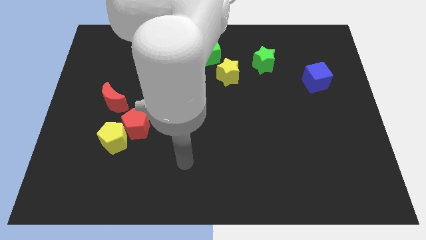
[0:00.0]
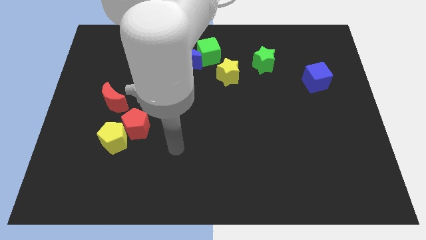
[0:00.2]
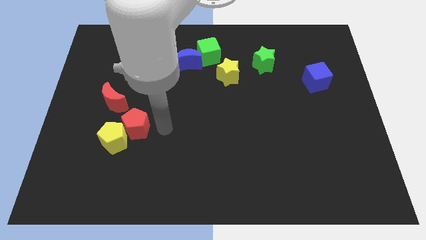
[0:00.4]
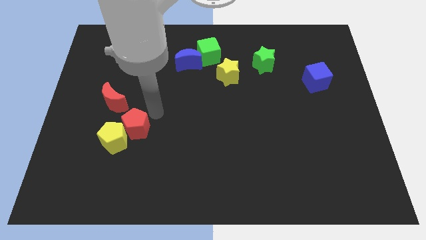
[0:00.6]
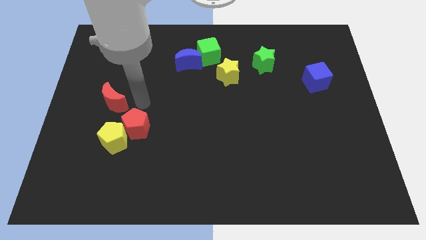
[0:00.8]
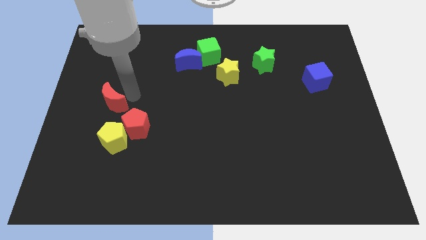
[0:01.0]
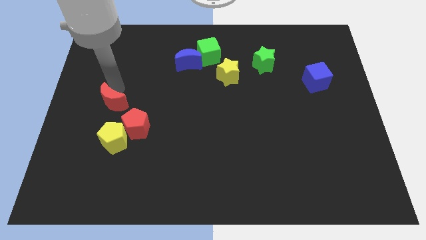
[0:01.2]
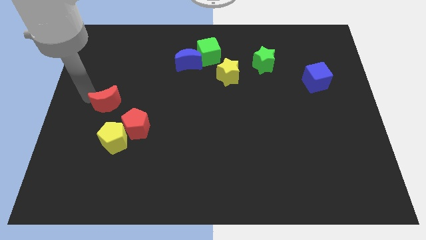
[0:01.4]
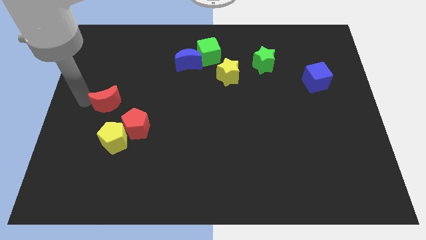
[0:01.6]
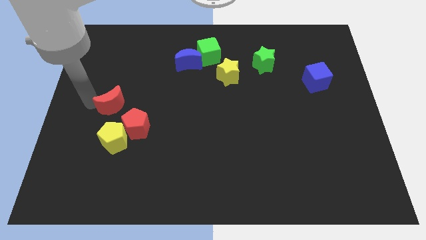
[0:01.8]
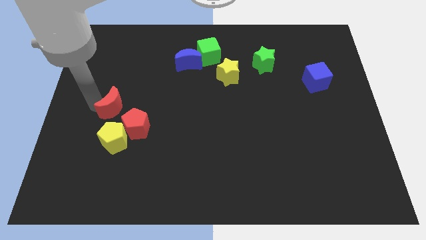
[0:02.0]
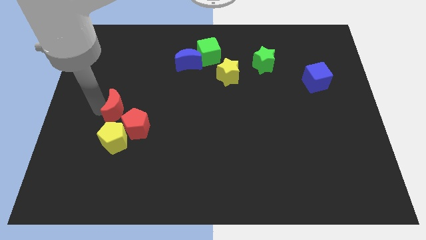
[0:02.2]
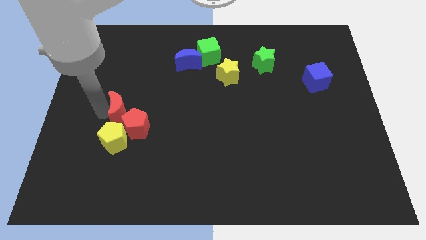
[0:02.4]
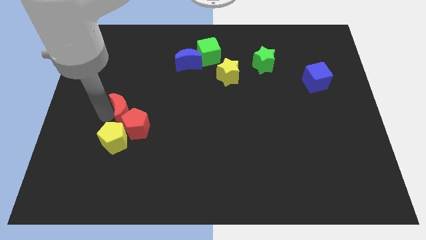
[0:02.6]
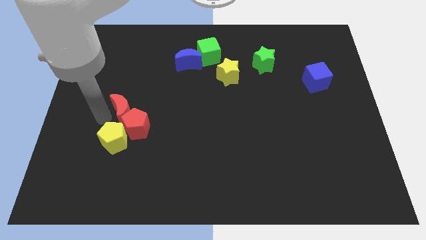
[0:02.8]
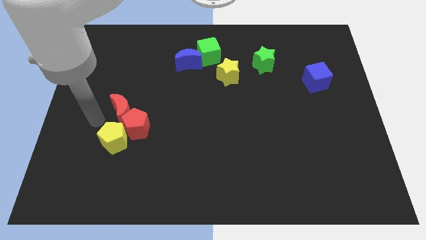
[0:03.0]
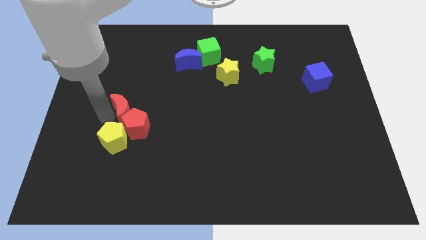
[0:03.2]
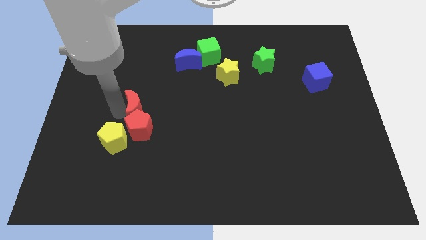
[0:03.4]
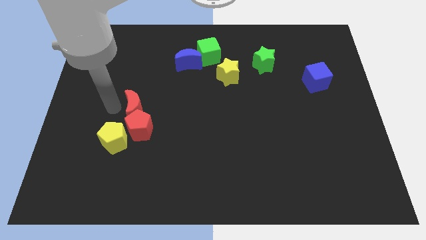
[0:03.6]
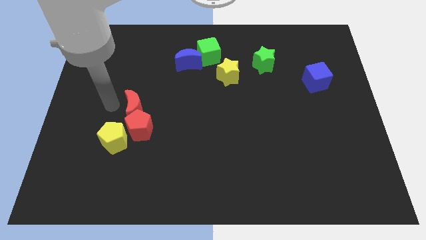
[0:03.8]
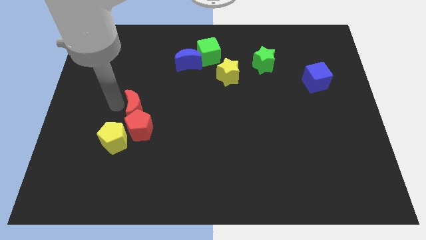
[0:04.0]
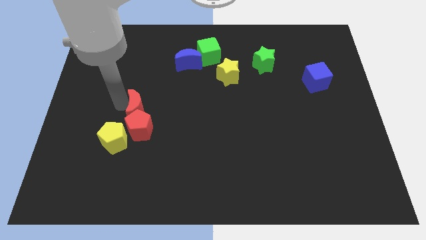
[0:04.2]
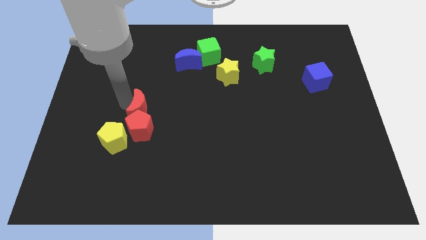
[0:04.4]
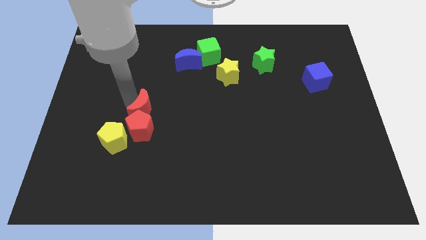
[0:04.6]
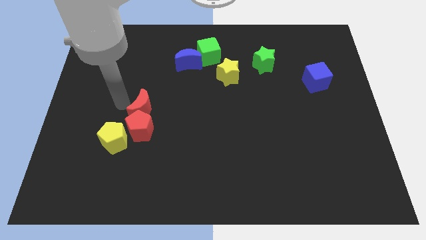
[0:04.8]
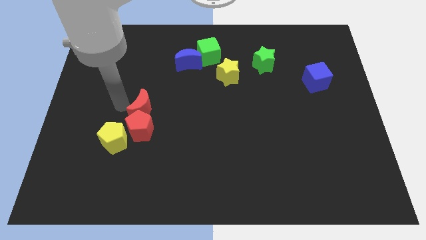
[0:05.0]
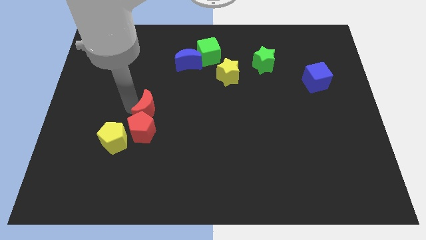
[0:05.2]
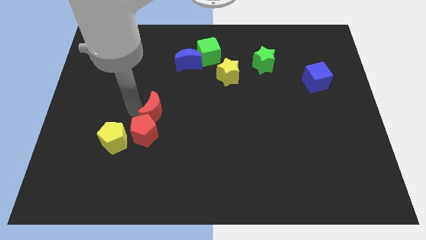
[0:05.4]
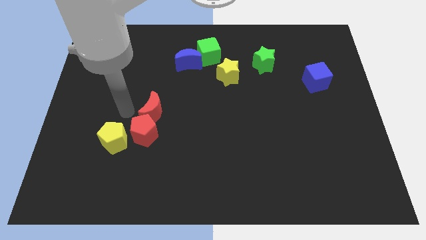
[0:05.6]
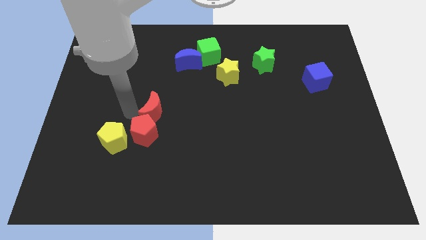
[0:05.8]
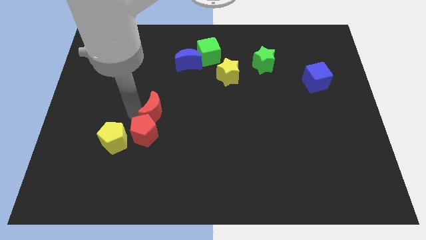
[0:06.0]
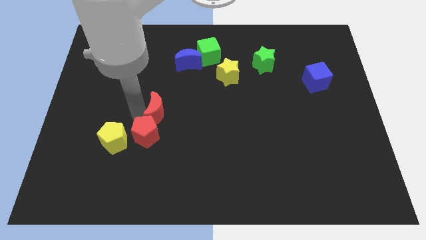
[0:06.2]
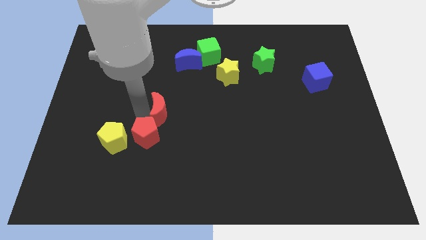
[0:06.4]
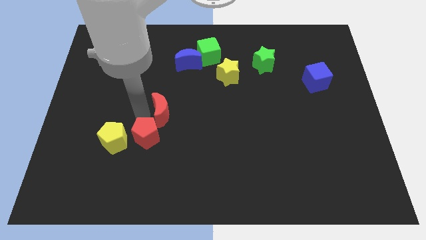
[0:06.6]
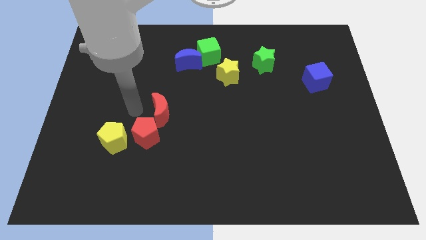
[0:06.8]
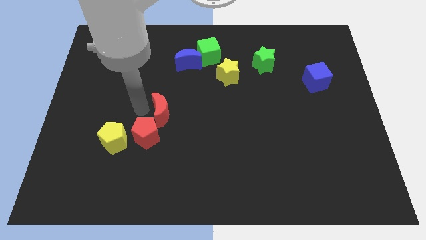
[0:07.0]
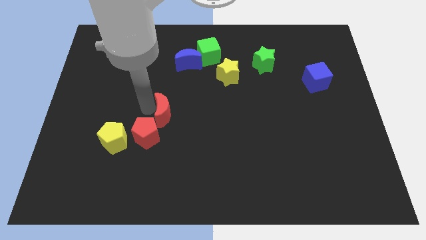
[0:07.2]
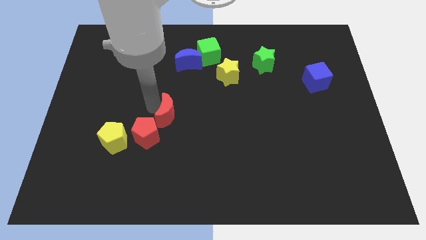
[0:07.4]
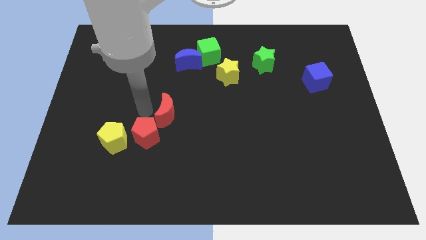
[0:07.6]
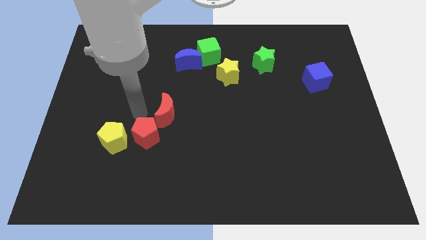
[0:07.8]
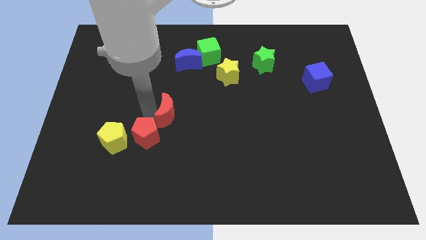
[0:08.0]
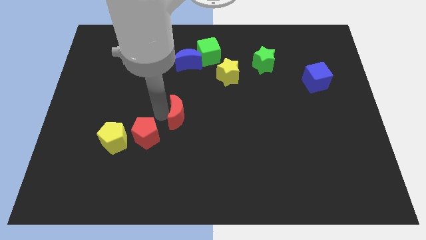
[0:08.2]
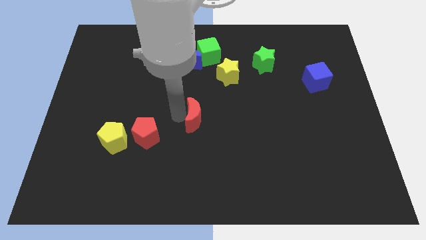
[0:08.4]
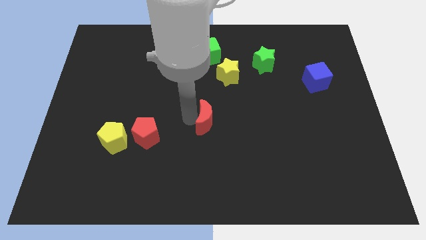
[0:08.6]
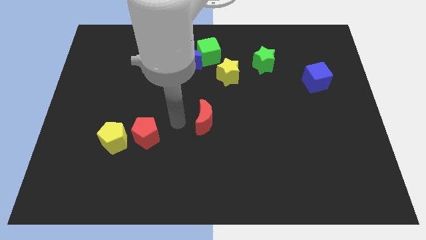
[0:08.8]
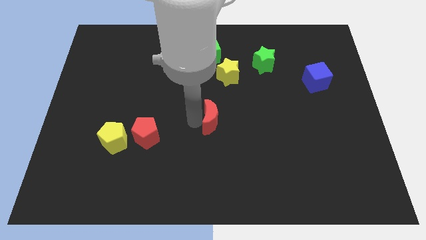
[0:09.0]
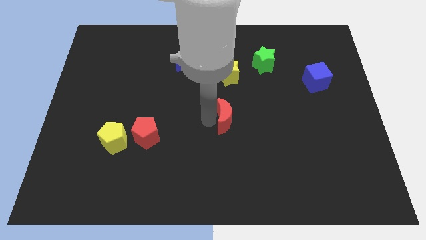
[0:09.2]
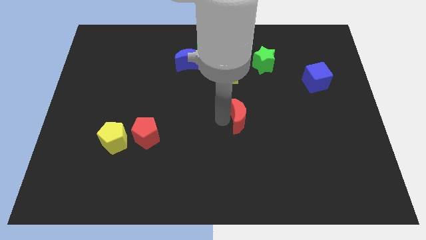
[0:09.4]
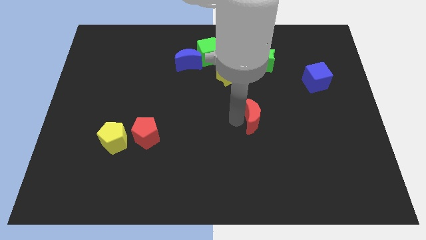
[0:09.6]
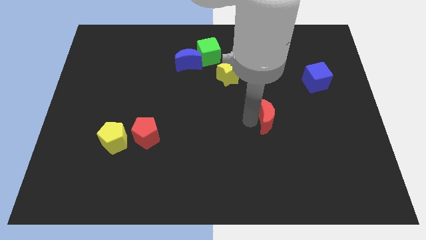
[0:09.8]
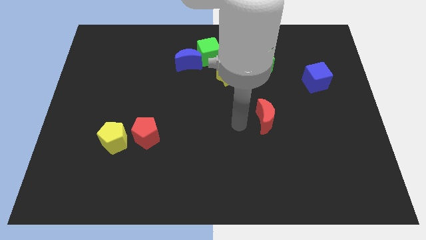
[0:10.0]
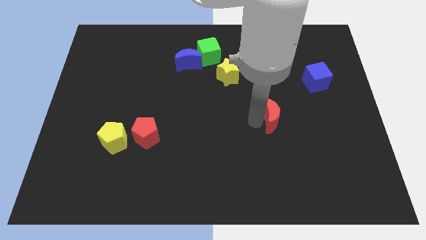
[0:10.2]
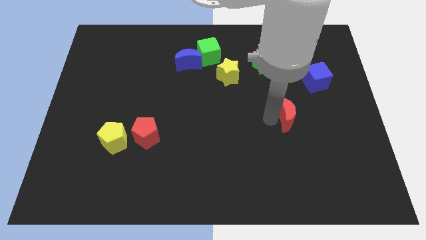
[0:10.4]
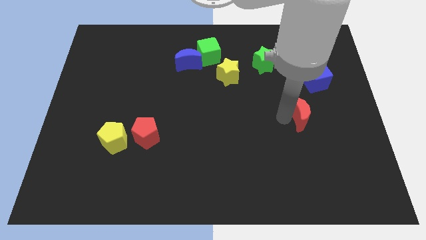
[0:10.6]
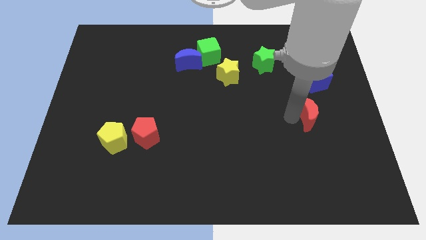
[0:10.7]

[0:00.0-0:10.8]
move the red moon to the bottom side of the blue cube

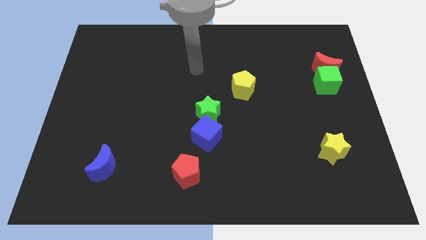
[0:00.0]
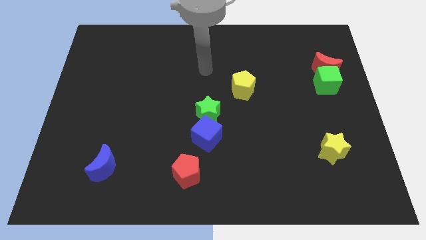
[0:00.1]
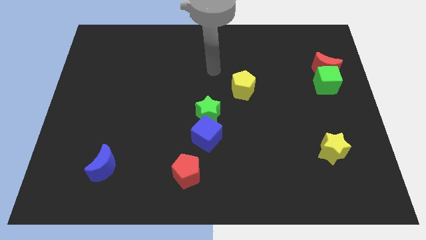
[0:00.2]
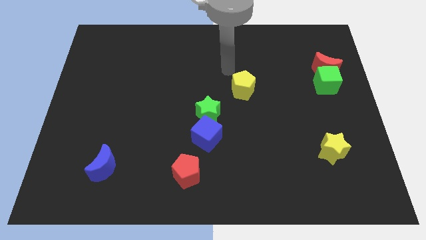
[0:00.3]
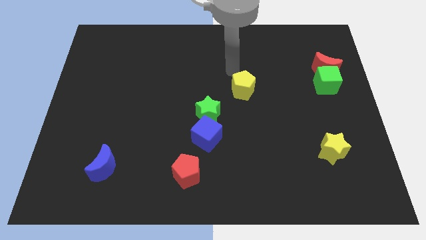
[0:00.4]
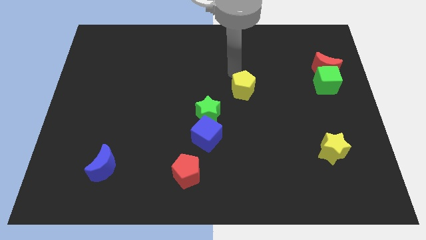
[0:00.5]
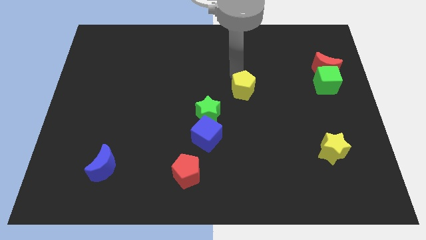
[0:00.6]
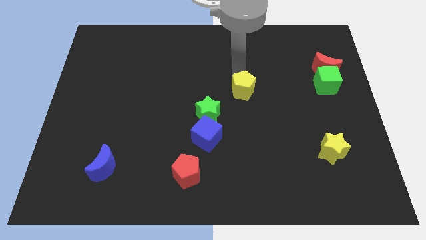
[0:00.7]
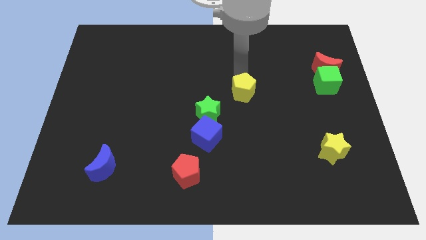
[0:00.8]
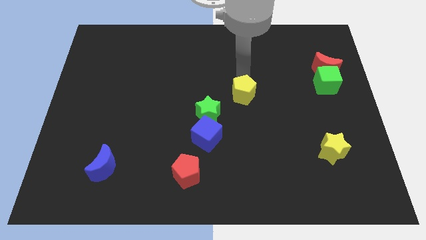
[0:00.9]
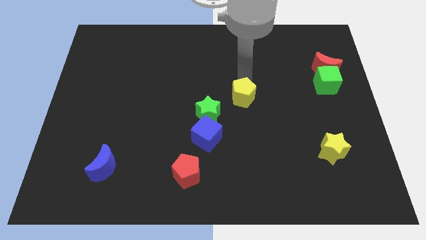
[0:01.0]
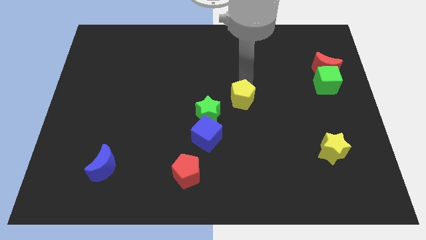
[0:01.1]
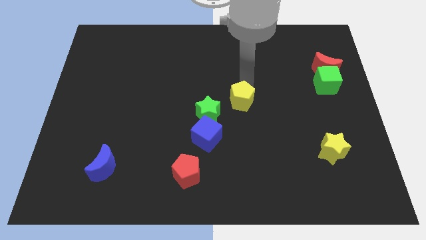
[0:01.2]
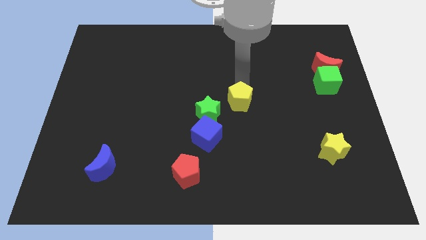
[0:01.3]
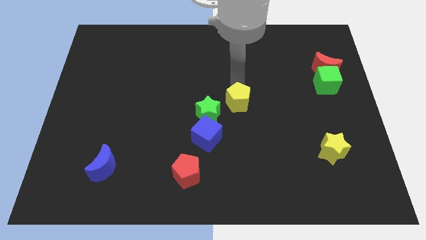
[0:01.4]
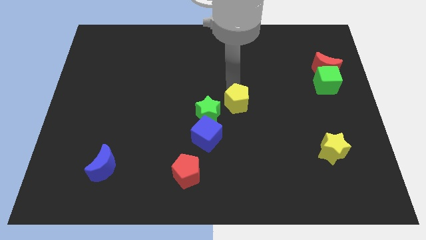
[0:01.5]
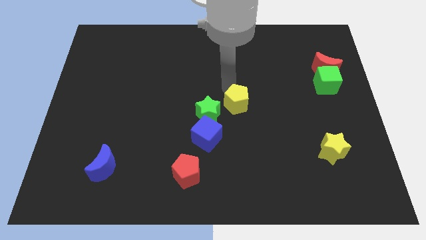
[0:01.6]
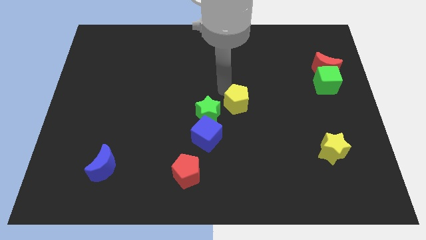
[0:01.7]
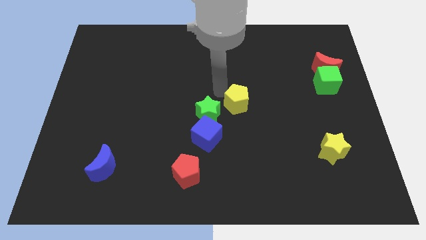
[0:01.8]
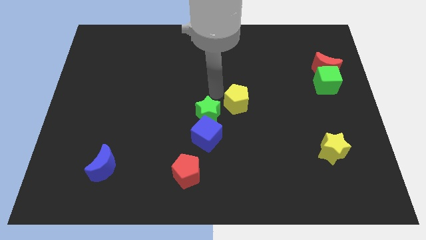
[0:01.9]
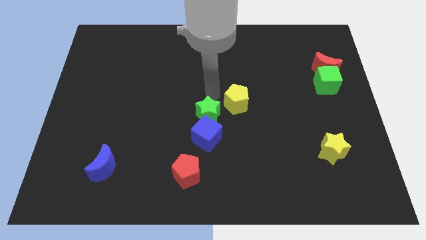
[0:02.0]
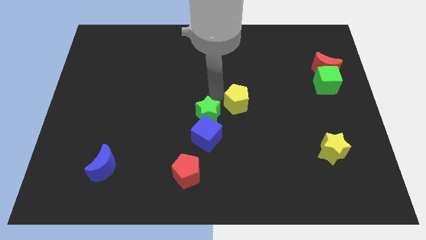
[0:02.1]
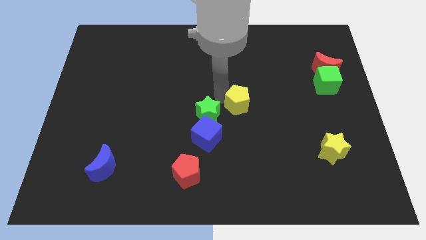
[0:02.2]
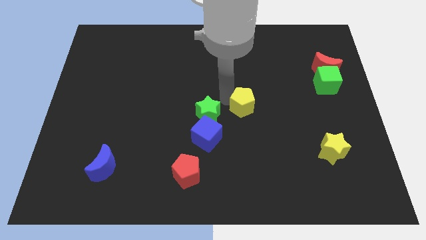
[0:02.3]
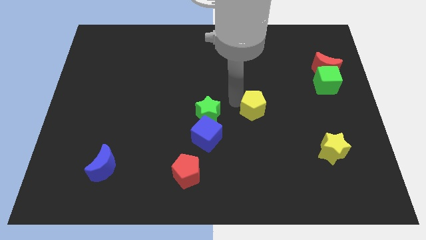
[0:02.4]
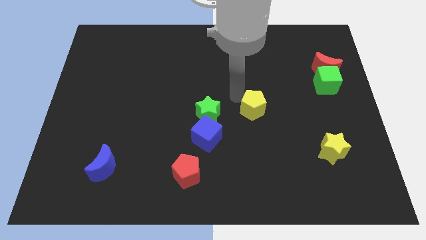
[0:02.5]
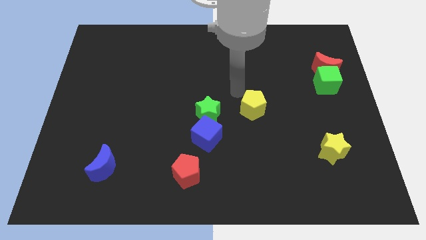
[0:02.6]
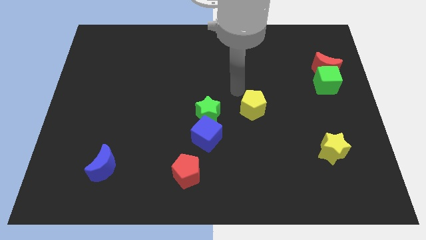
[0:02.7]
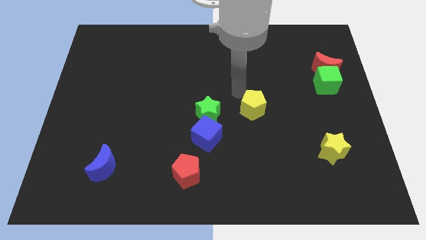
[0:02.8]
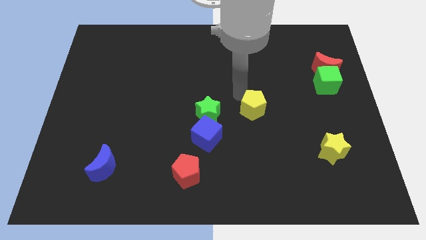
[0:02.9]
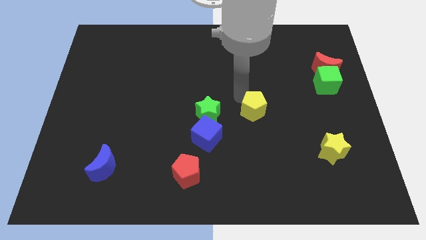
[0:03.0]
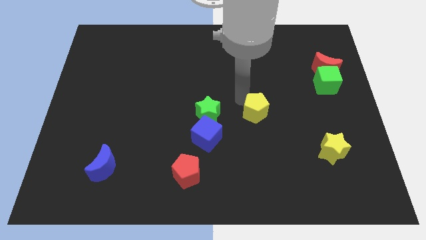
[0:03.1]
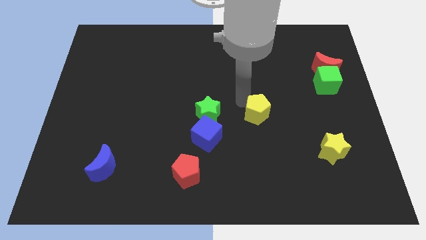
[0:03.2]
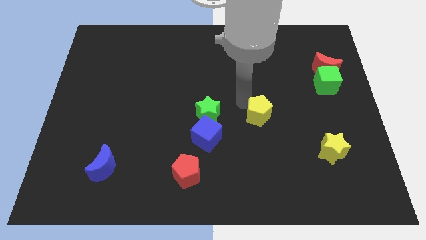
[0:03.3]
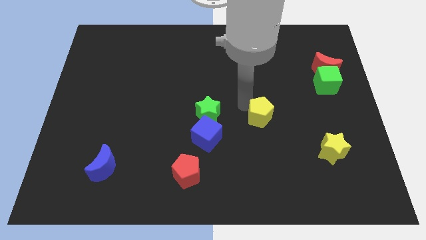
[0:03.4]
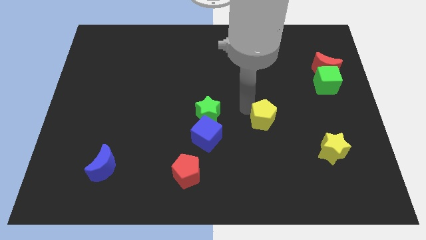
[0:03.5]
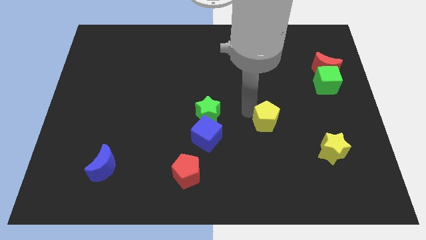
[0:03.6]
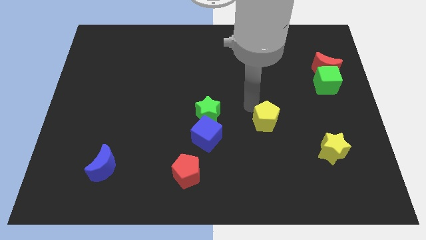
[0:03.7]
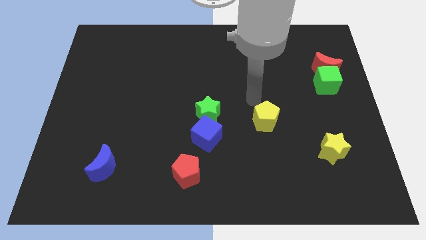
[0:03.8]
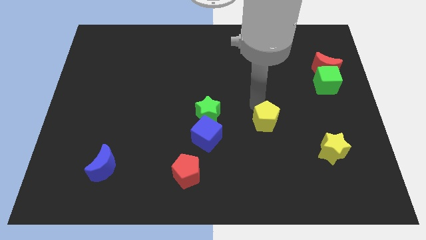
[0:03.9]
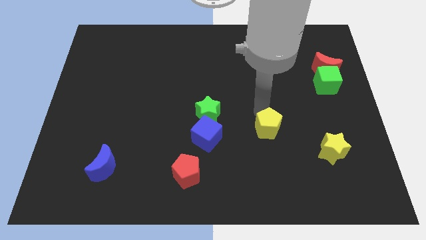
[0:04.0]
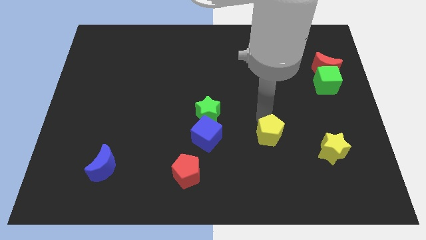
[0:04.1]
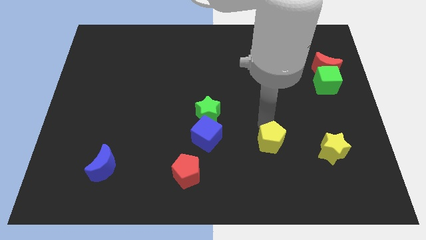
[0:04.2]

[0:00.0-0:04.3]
slide the yellow pentagon to the left of the yellow star
